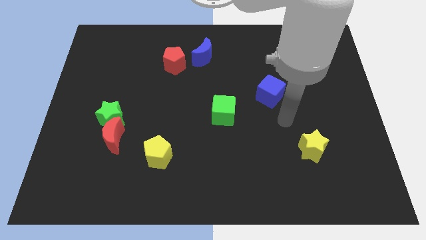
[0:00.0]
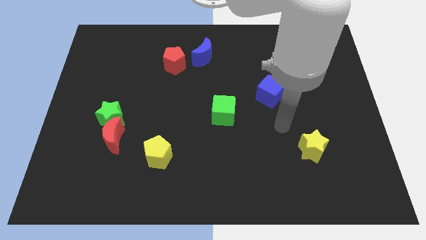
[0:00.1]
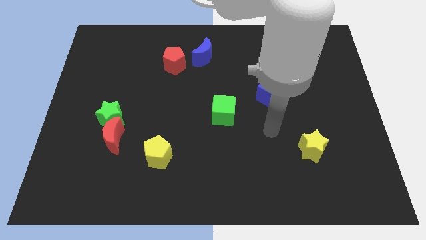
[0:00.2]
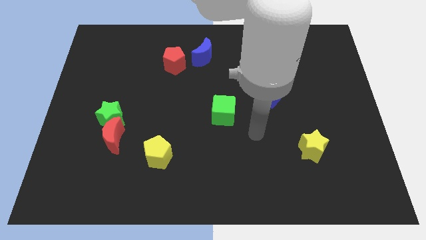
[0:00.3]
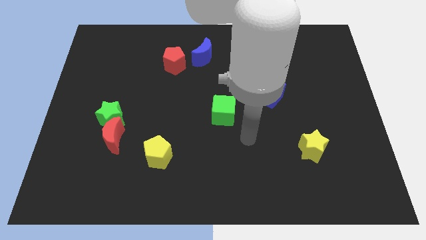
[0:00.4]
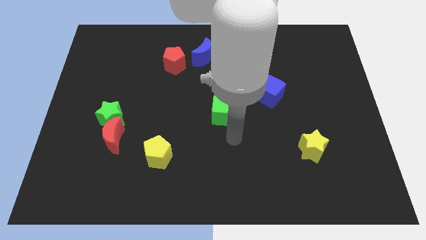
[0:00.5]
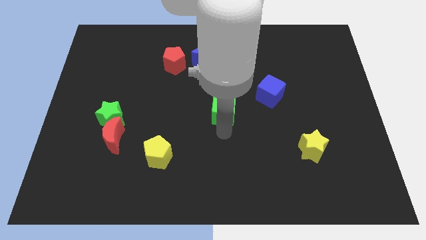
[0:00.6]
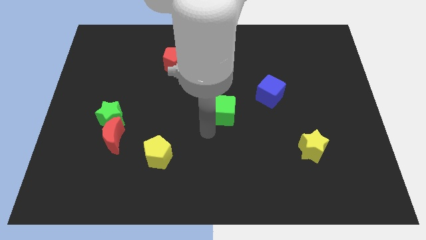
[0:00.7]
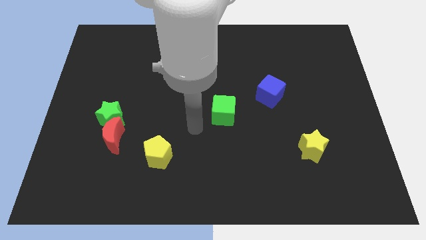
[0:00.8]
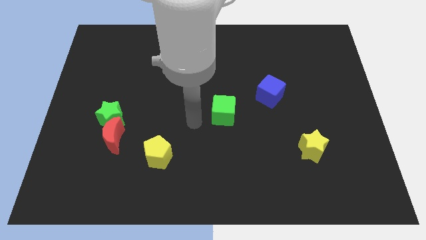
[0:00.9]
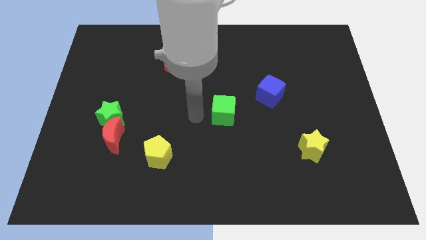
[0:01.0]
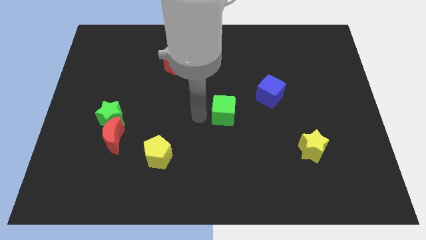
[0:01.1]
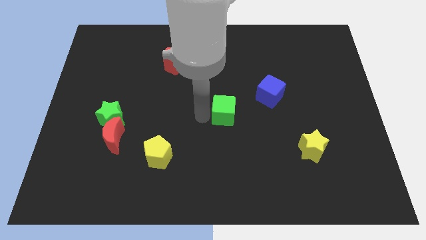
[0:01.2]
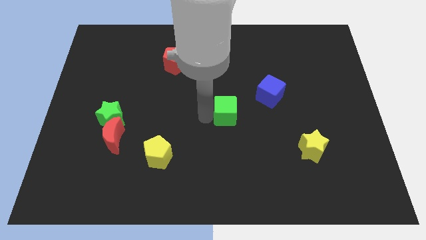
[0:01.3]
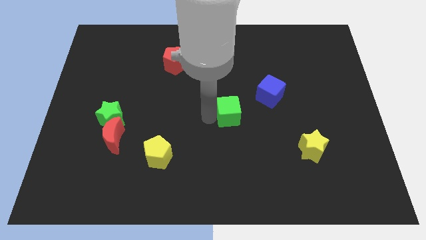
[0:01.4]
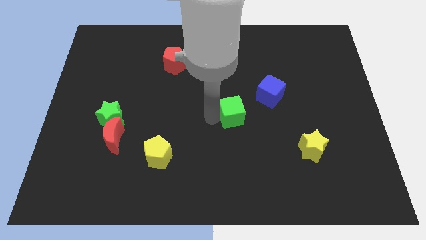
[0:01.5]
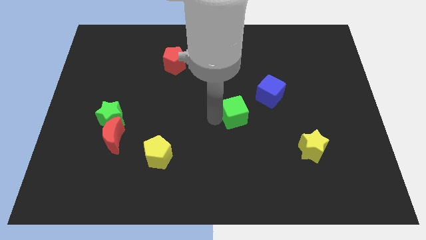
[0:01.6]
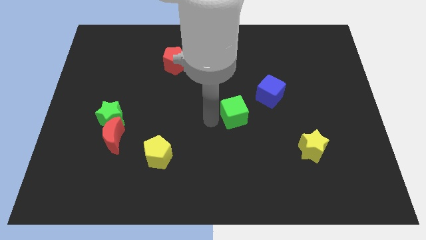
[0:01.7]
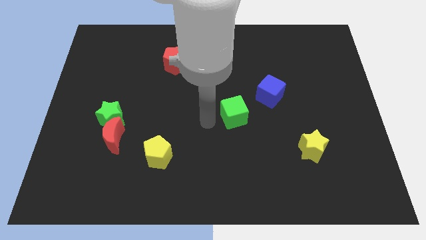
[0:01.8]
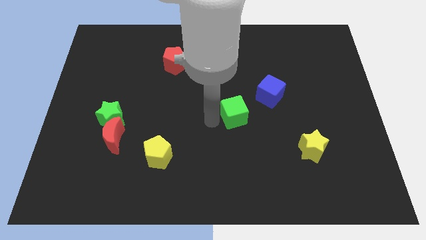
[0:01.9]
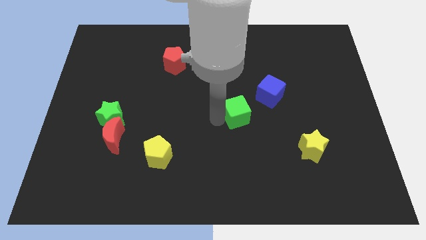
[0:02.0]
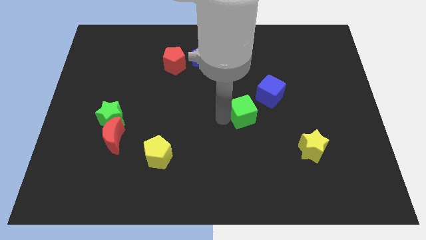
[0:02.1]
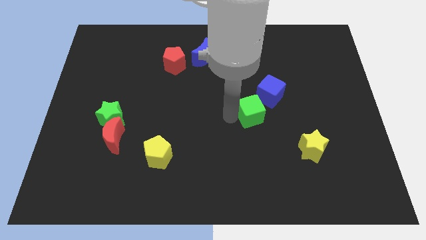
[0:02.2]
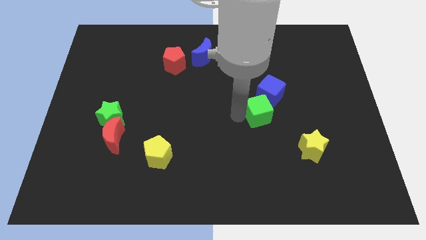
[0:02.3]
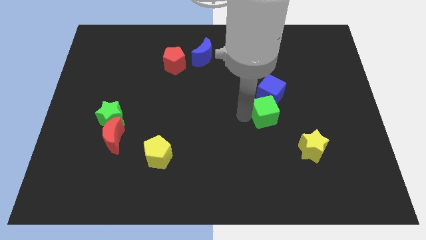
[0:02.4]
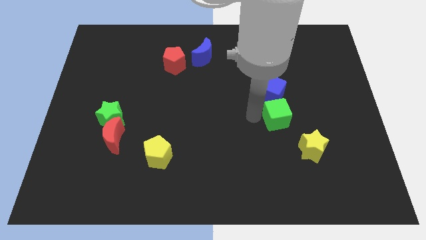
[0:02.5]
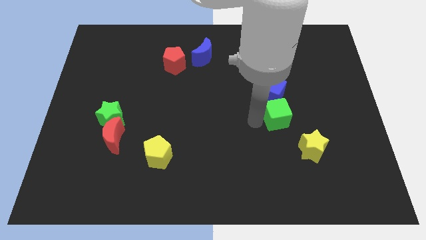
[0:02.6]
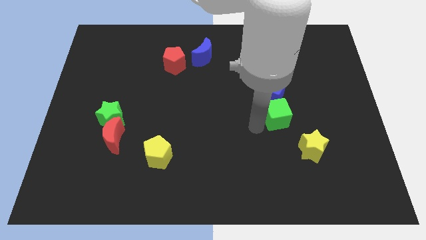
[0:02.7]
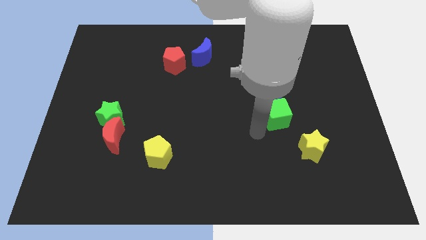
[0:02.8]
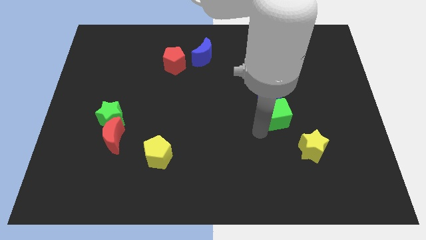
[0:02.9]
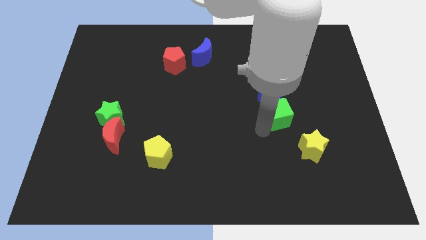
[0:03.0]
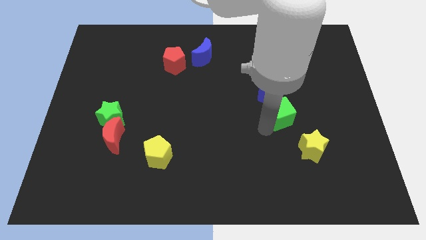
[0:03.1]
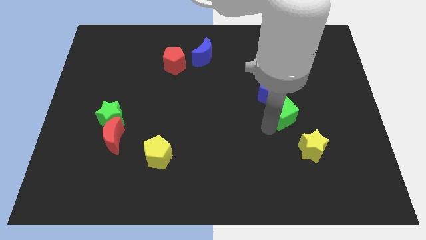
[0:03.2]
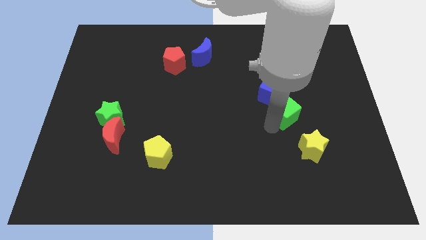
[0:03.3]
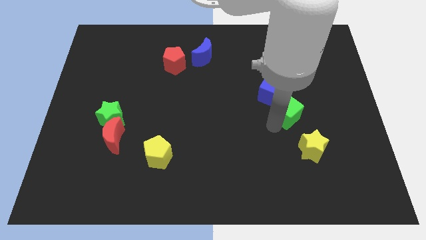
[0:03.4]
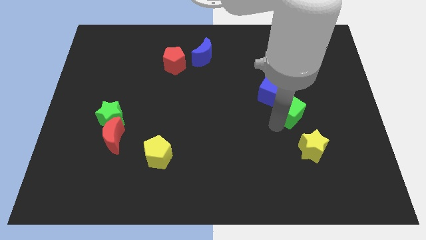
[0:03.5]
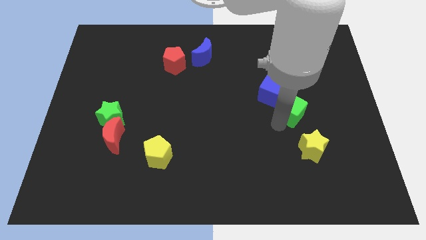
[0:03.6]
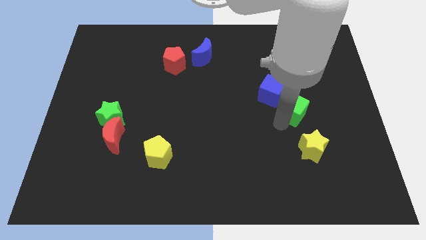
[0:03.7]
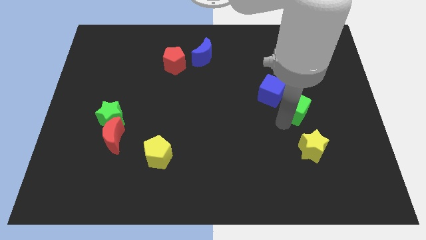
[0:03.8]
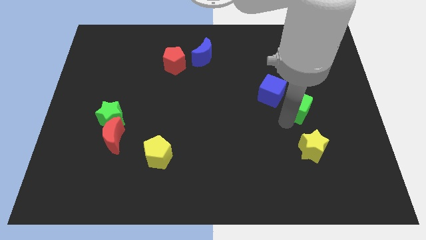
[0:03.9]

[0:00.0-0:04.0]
slide the green cube right of the blue cube

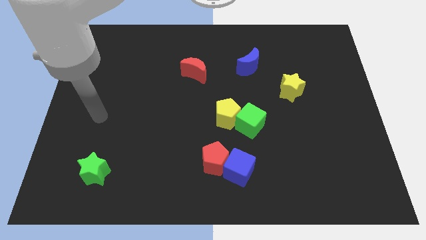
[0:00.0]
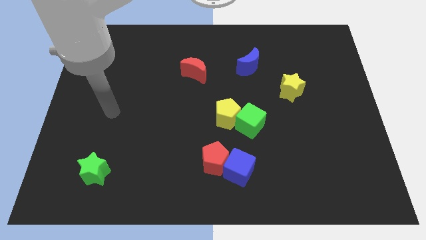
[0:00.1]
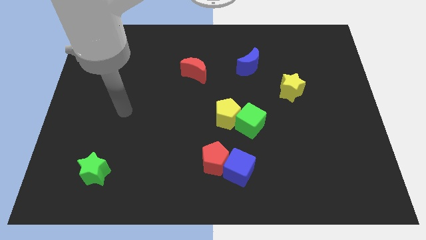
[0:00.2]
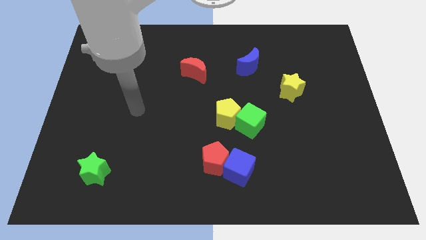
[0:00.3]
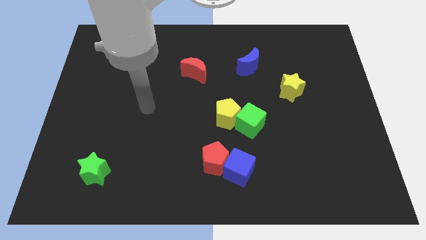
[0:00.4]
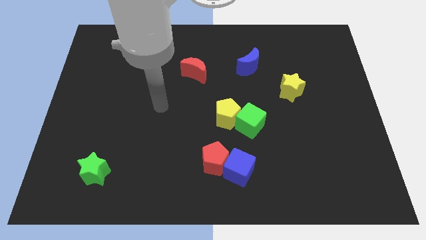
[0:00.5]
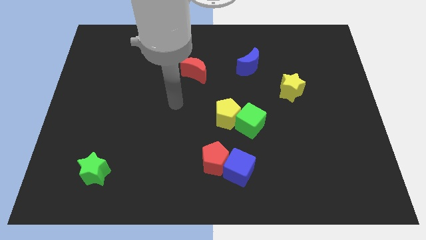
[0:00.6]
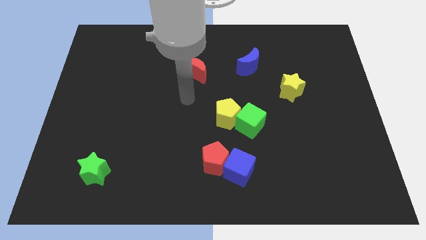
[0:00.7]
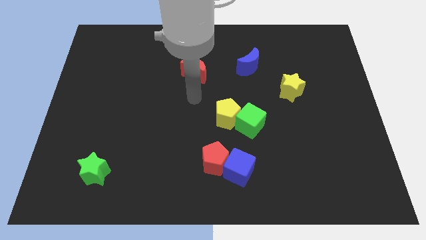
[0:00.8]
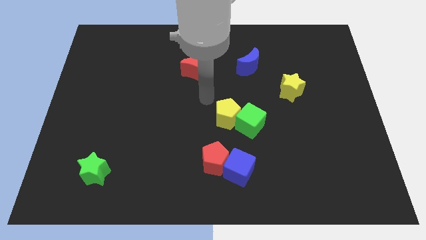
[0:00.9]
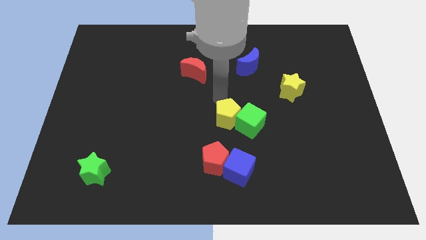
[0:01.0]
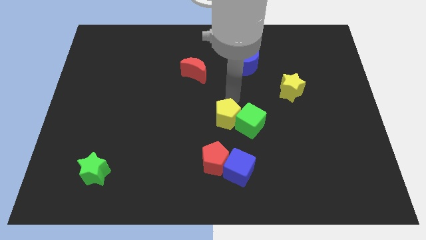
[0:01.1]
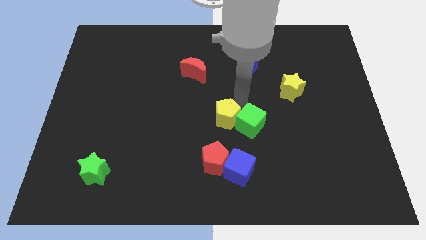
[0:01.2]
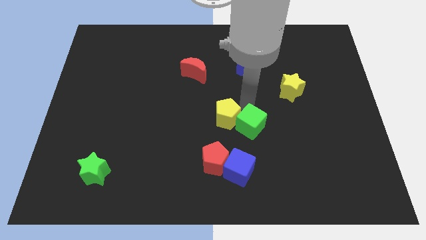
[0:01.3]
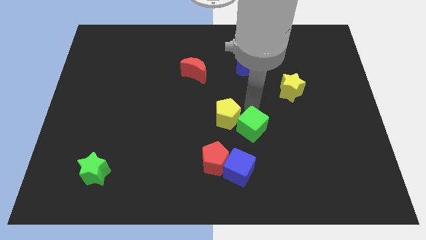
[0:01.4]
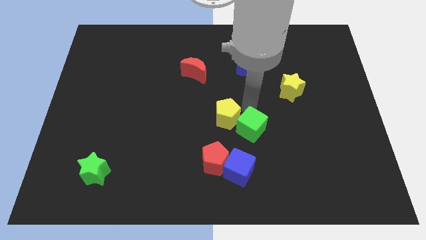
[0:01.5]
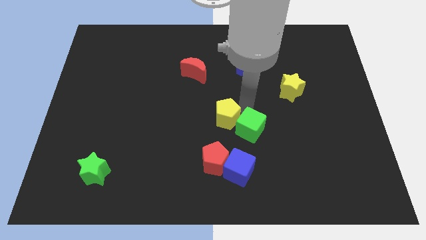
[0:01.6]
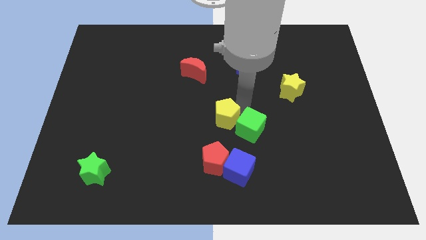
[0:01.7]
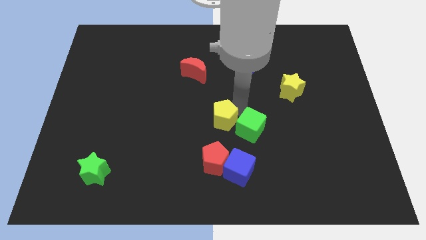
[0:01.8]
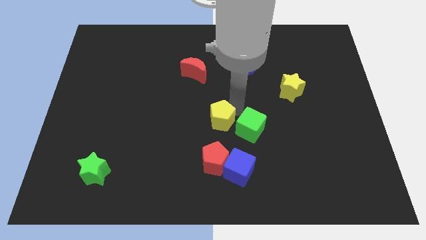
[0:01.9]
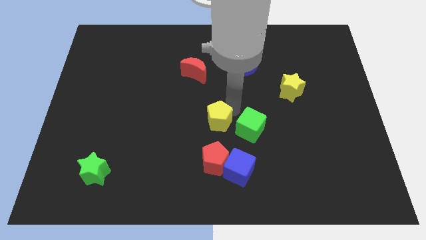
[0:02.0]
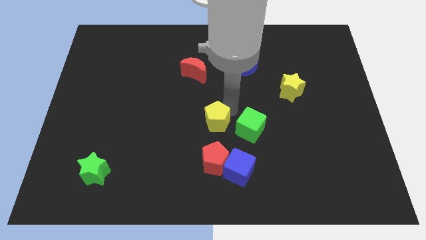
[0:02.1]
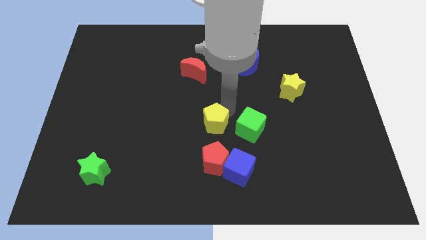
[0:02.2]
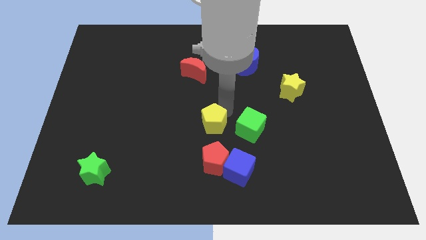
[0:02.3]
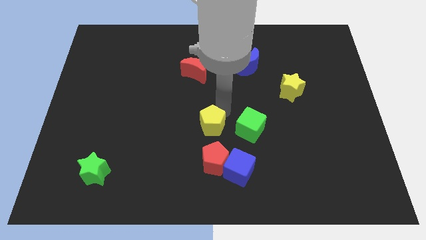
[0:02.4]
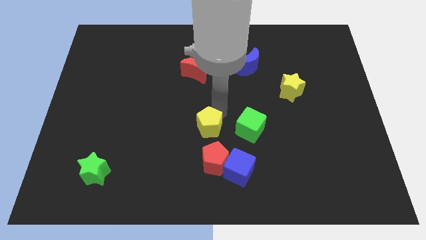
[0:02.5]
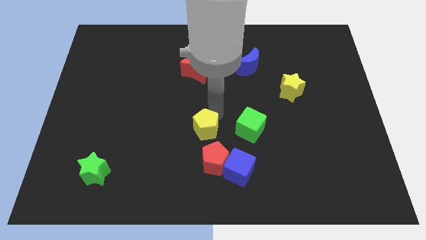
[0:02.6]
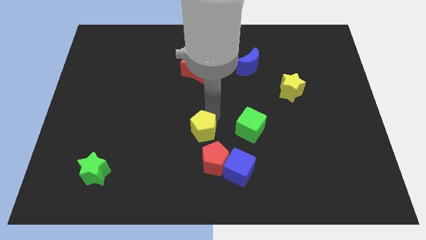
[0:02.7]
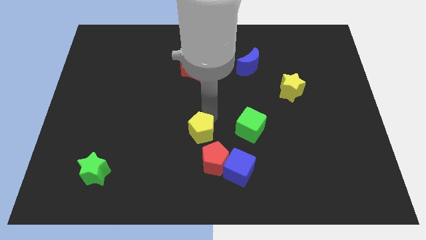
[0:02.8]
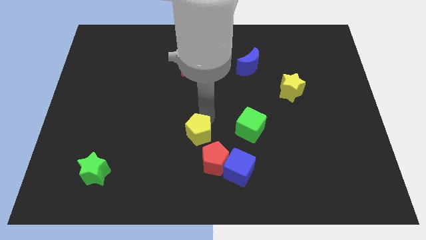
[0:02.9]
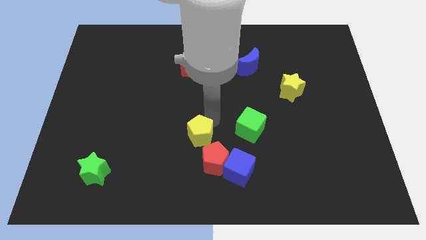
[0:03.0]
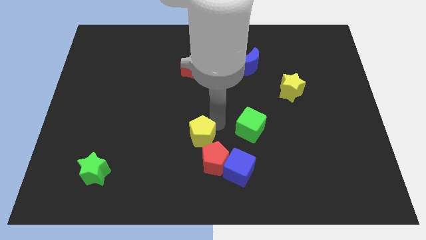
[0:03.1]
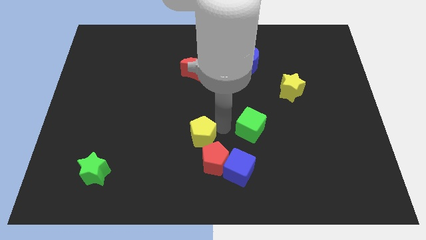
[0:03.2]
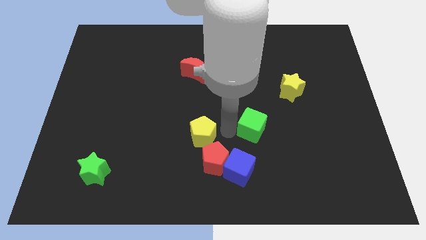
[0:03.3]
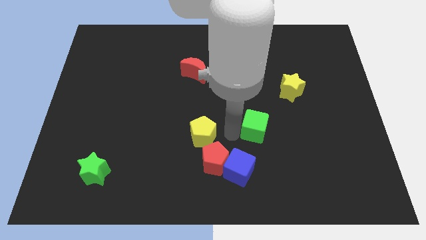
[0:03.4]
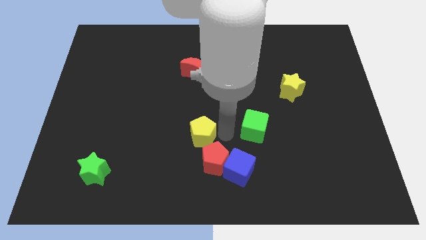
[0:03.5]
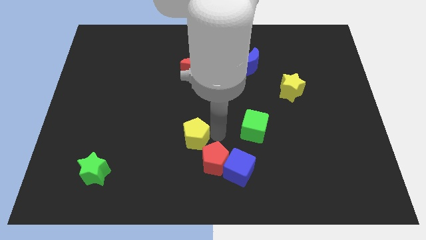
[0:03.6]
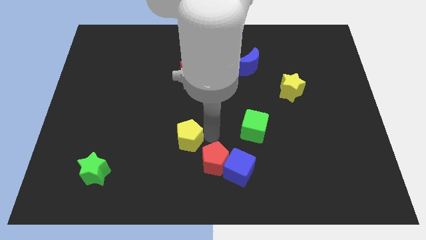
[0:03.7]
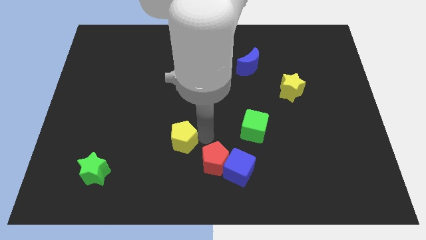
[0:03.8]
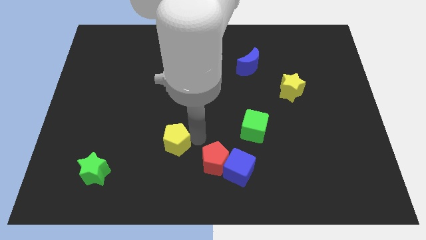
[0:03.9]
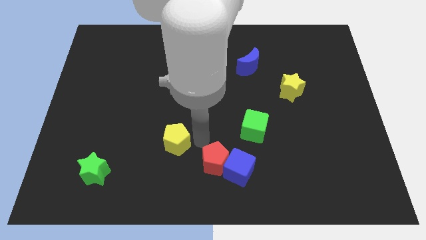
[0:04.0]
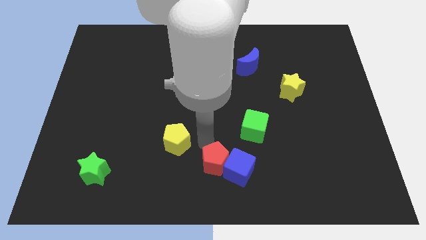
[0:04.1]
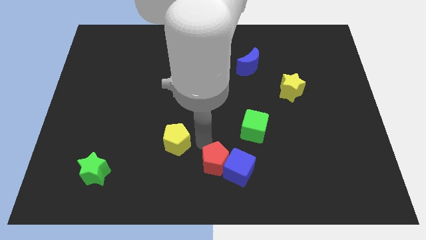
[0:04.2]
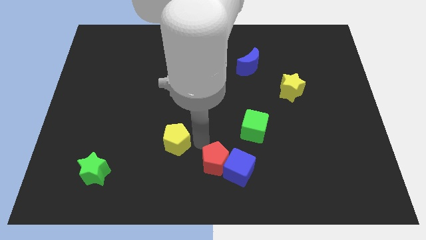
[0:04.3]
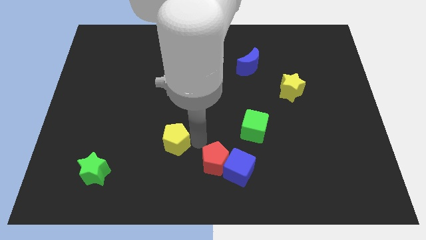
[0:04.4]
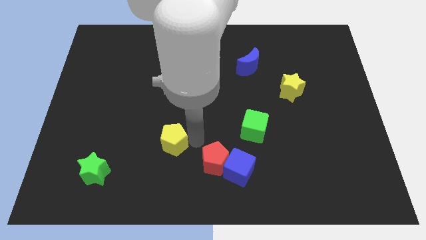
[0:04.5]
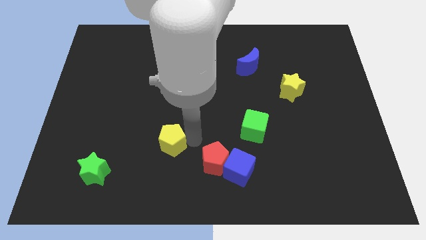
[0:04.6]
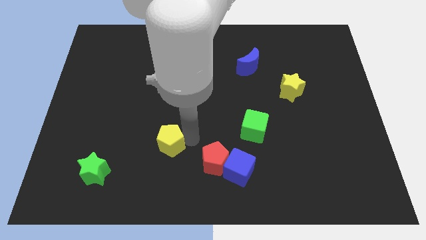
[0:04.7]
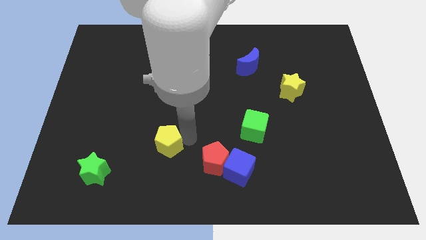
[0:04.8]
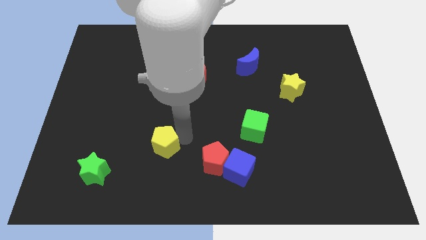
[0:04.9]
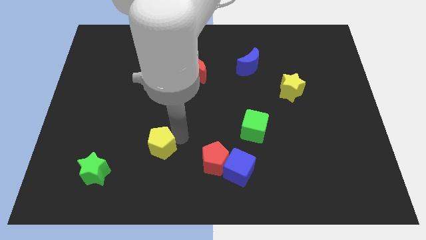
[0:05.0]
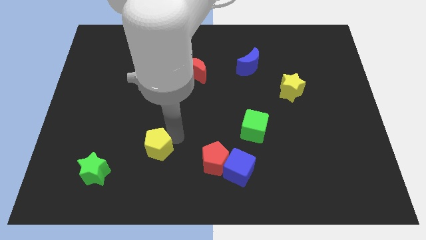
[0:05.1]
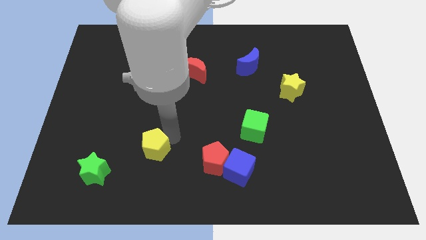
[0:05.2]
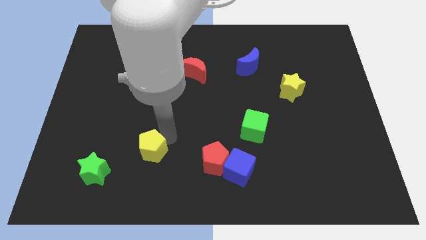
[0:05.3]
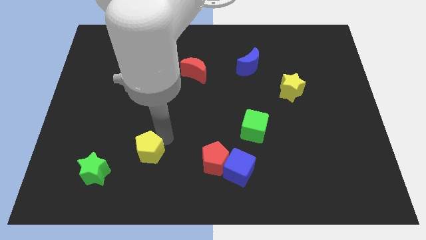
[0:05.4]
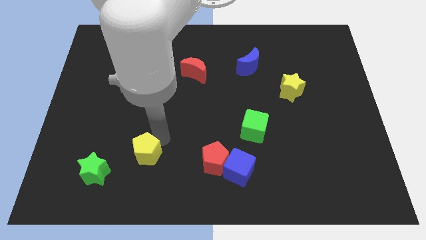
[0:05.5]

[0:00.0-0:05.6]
move the yellow pentagon to the top right side of the green star
